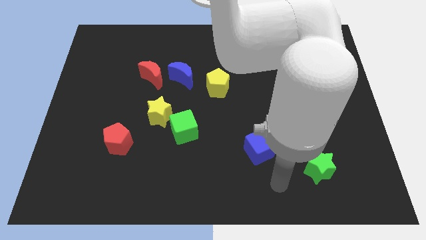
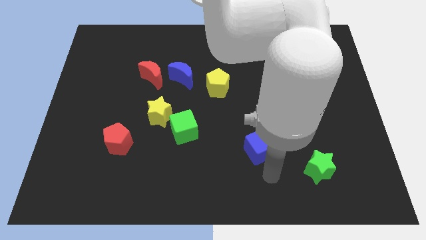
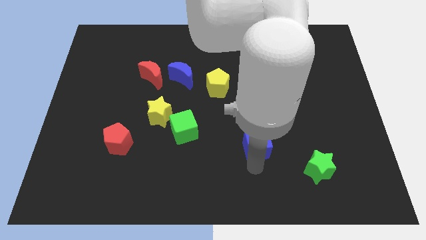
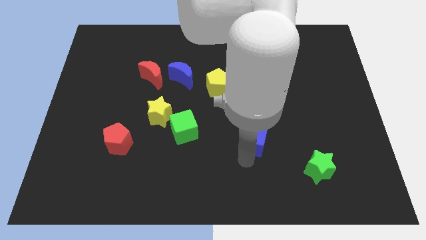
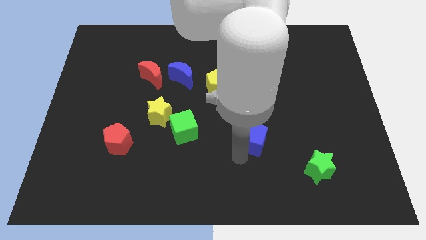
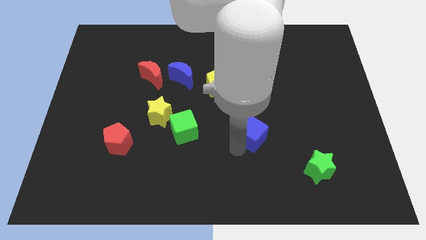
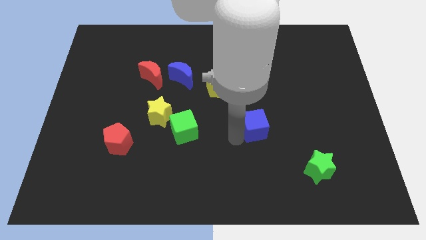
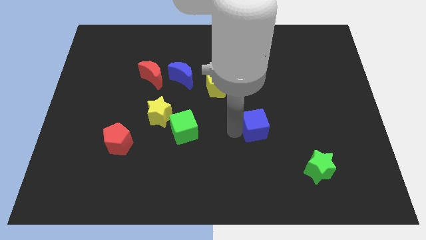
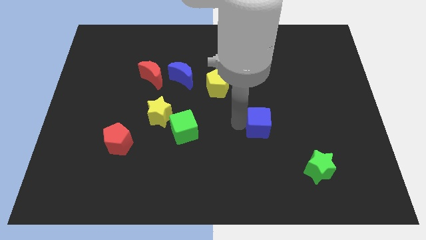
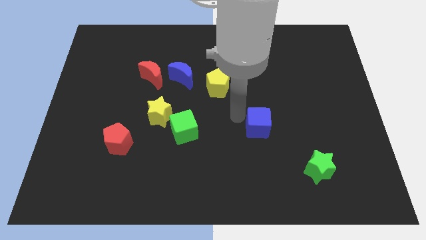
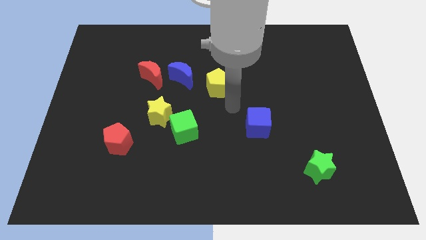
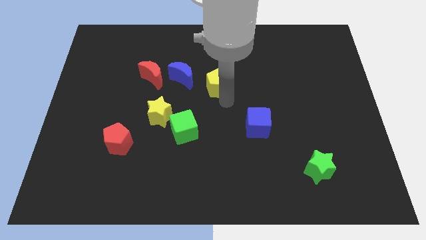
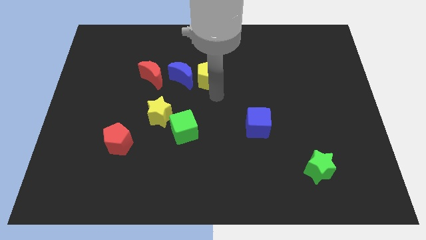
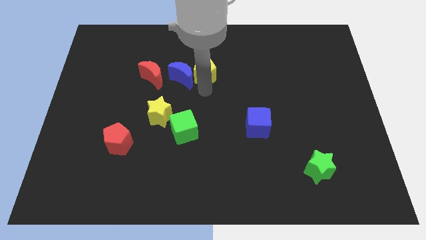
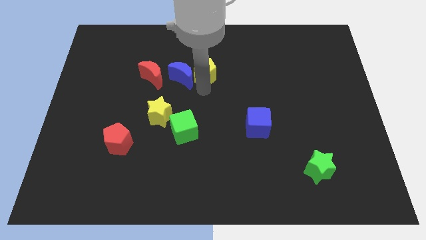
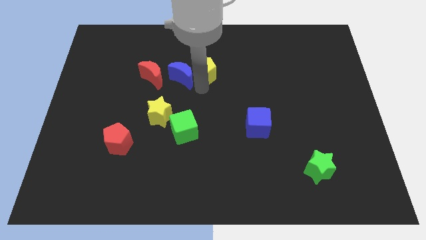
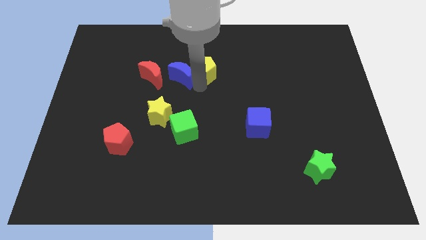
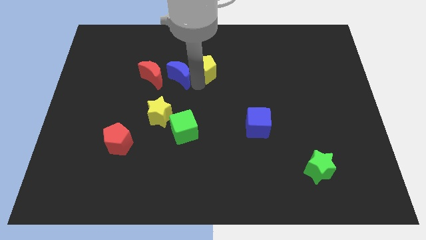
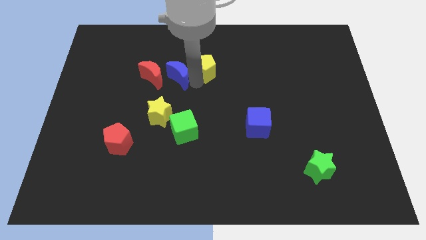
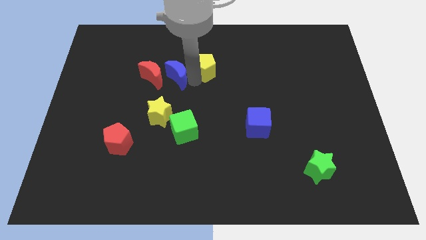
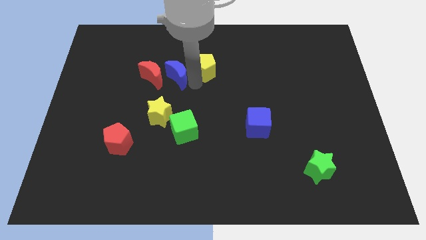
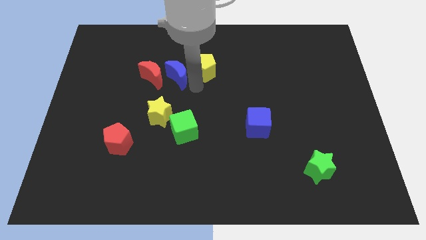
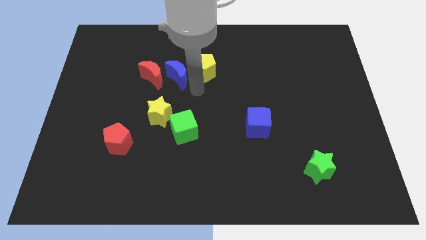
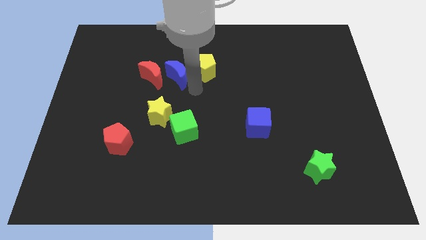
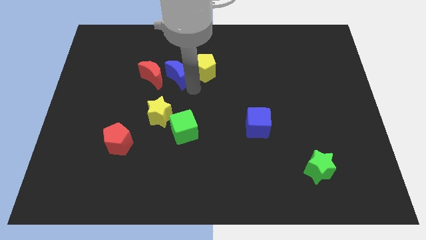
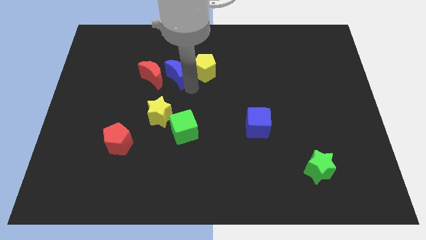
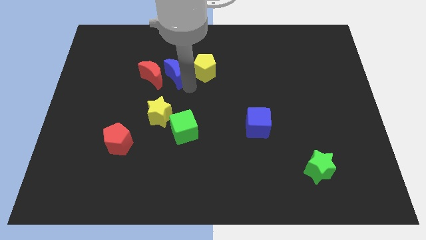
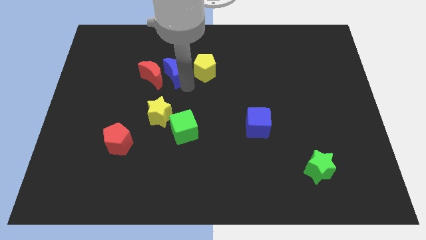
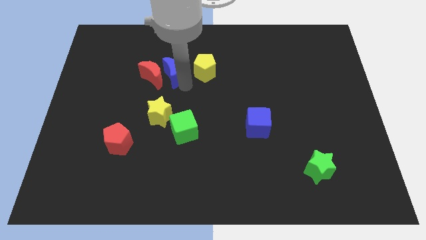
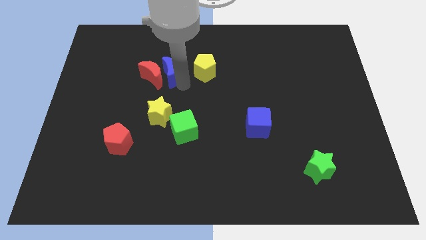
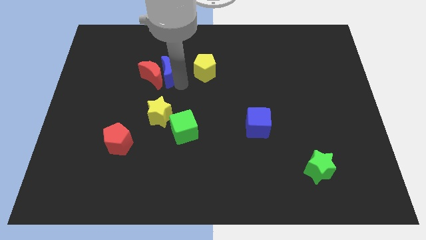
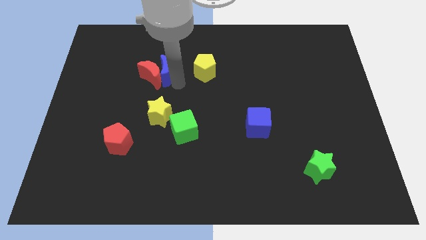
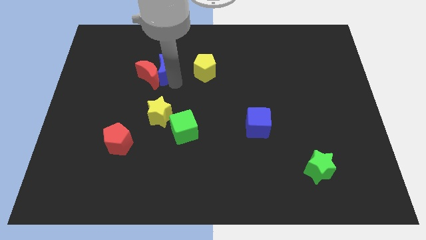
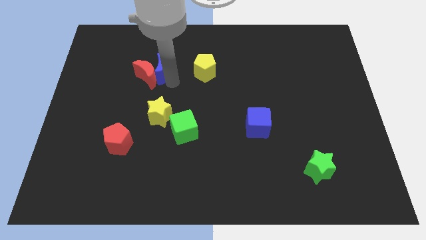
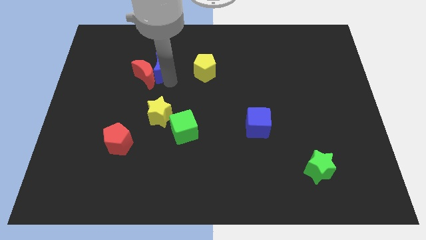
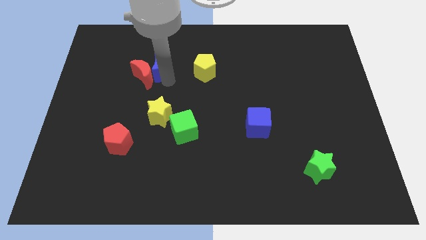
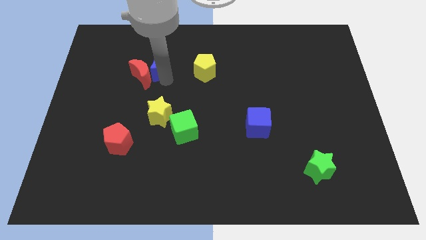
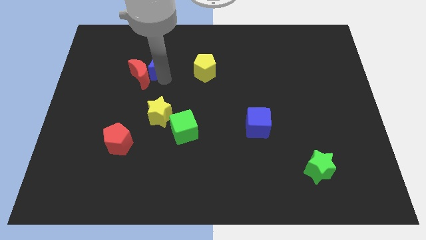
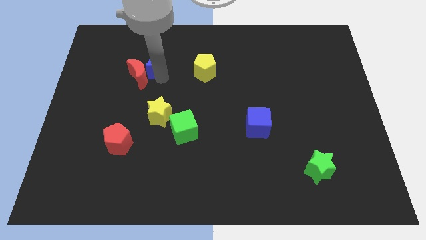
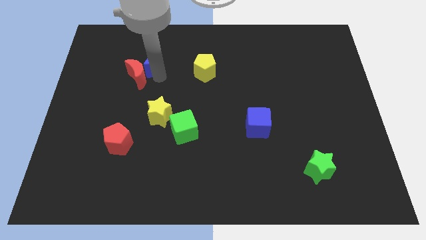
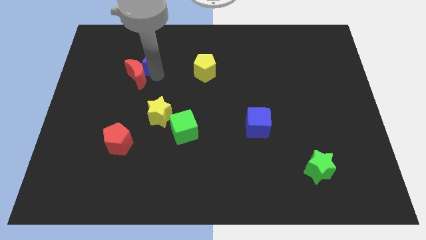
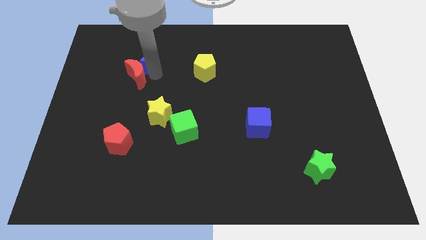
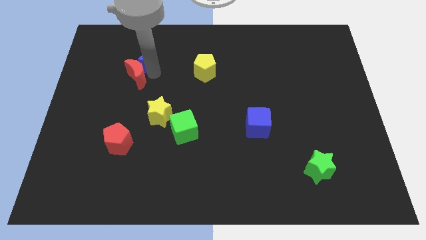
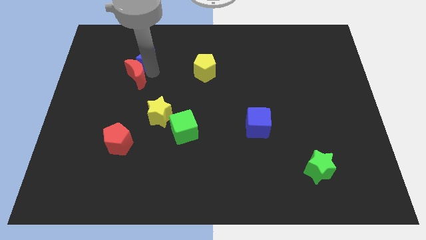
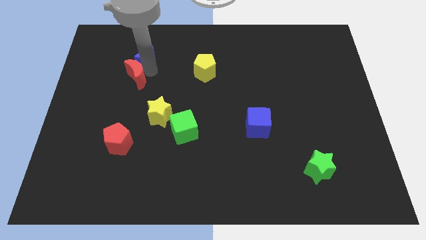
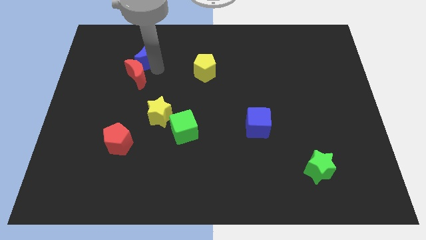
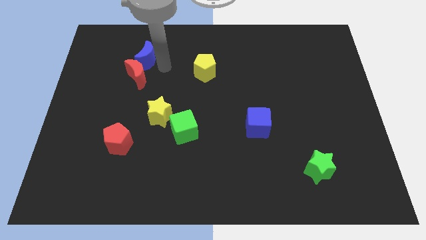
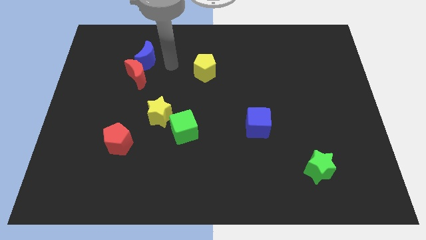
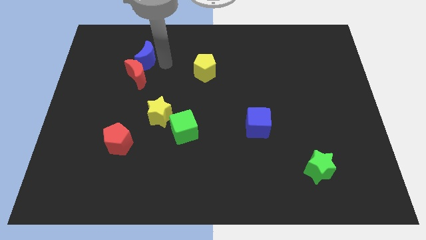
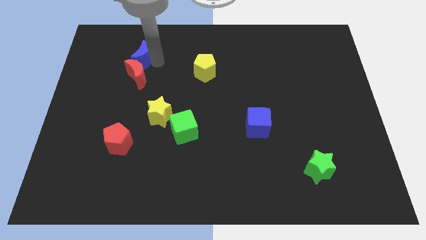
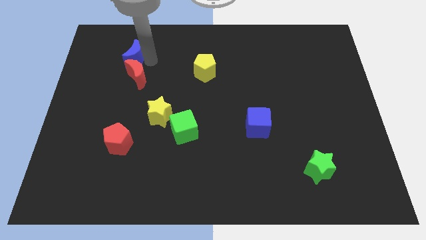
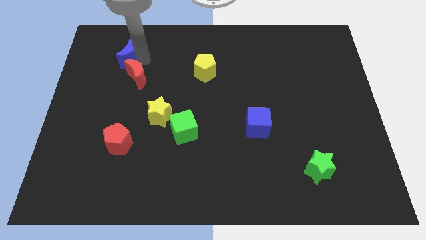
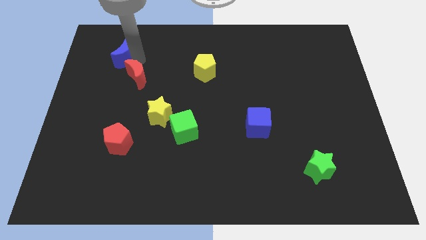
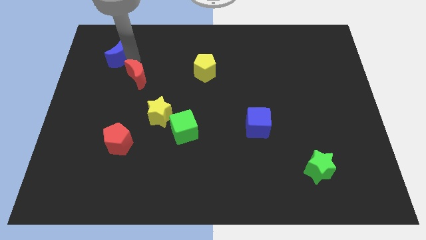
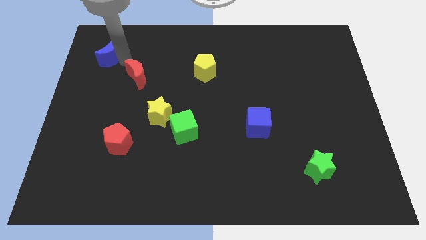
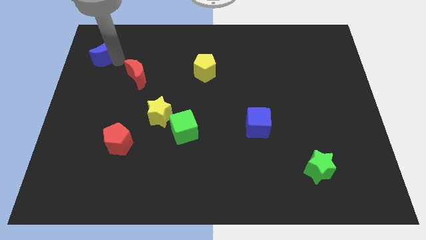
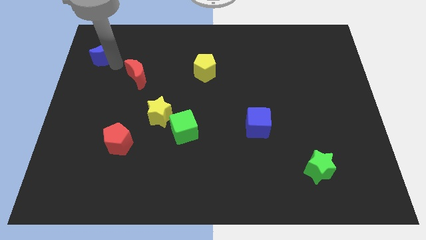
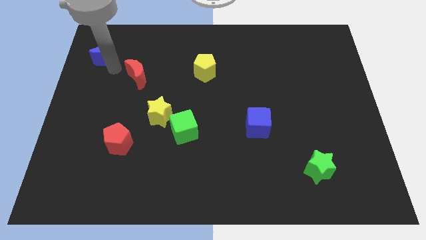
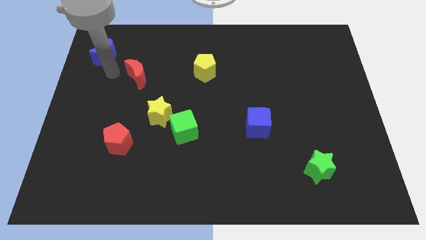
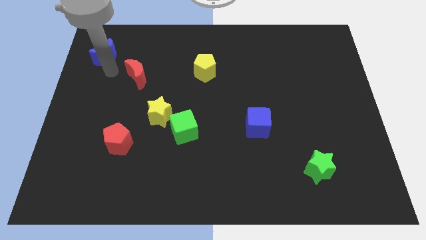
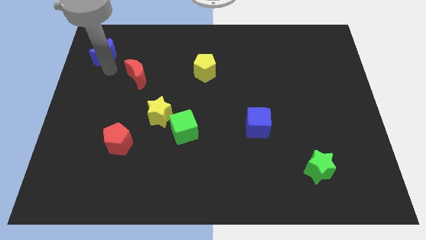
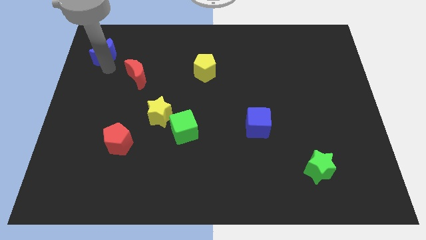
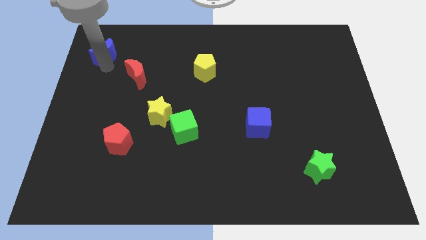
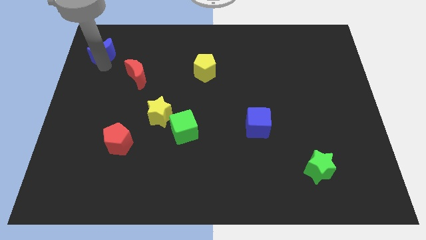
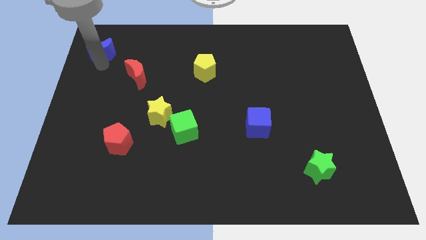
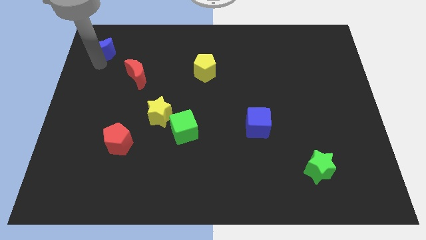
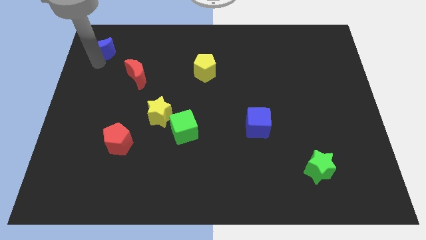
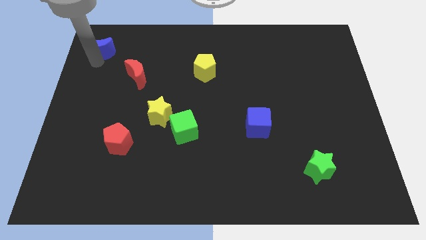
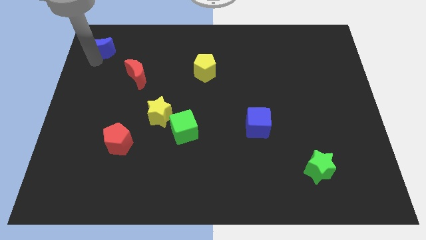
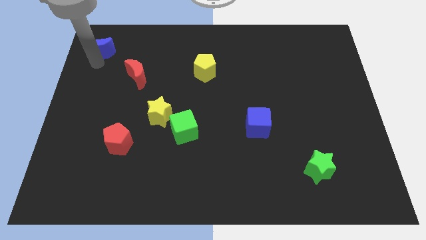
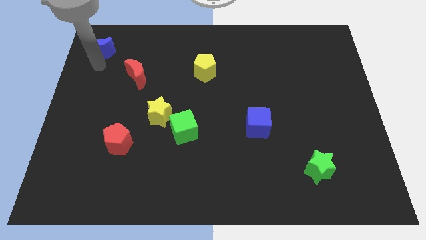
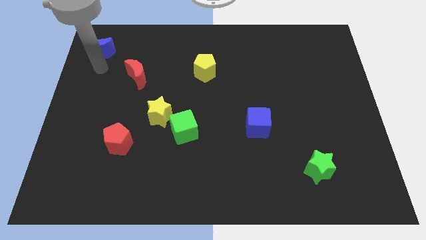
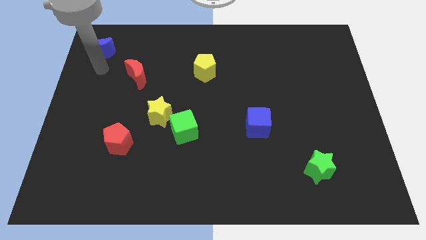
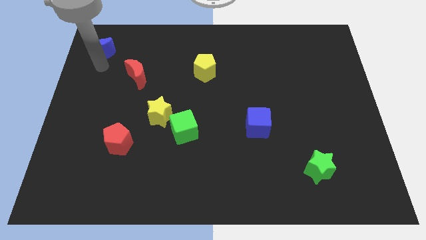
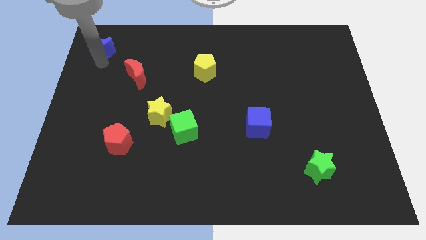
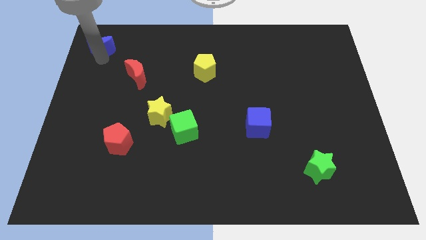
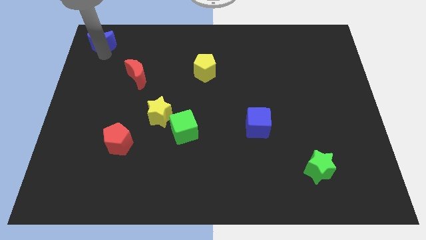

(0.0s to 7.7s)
put the blue moon to the top left of the board
